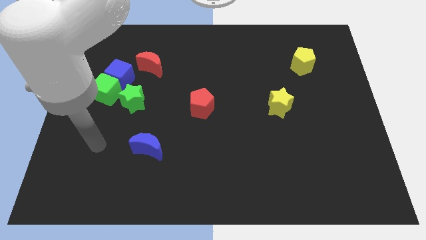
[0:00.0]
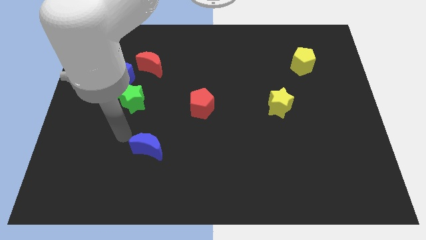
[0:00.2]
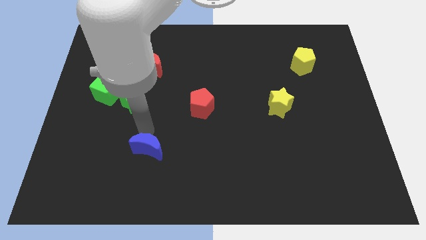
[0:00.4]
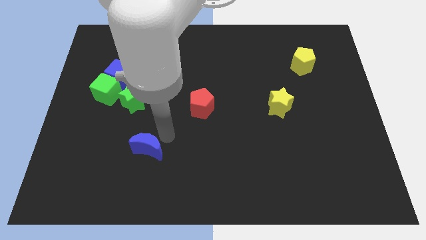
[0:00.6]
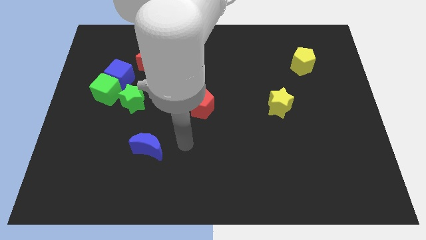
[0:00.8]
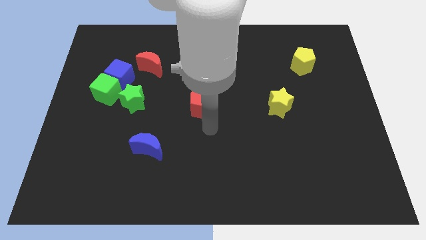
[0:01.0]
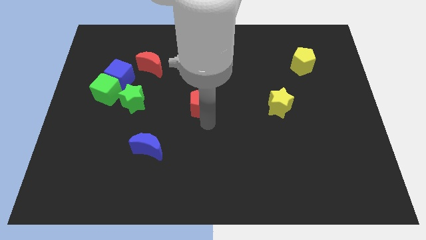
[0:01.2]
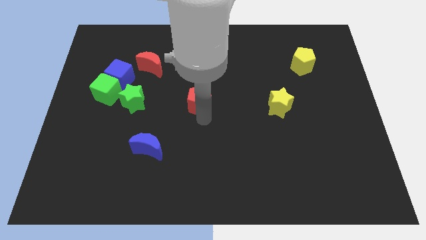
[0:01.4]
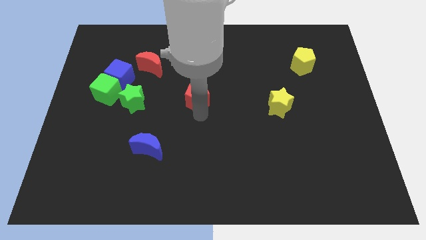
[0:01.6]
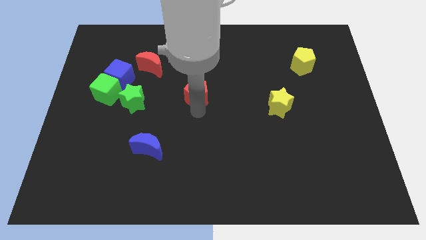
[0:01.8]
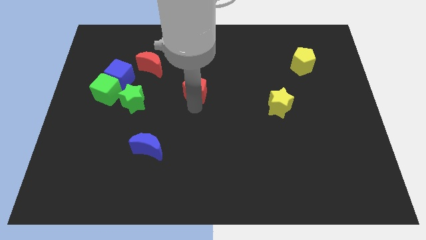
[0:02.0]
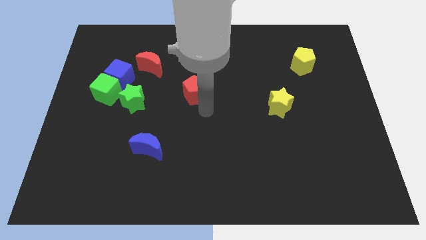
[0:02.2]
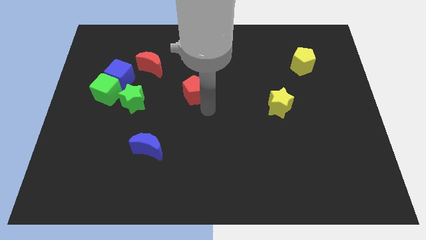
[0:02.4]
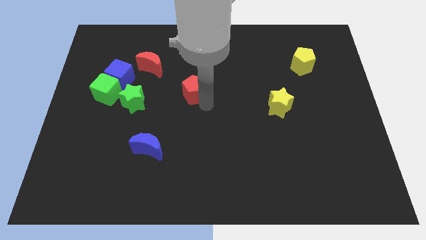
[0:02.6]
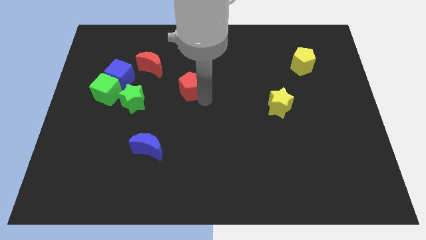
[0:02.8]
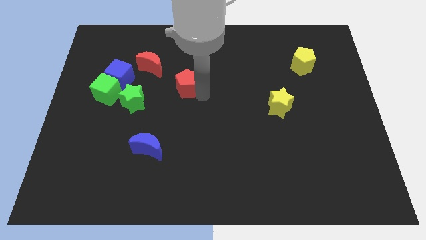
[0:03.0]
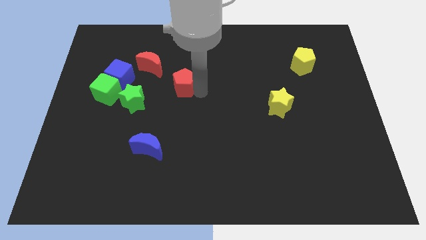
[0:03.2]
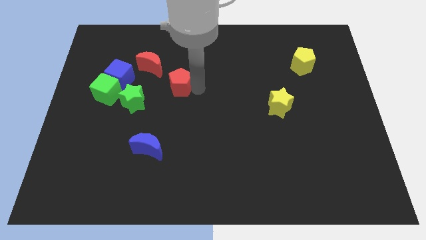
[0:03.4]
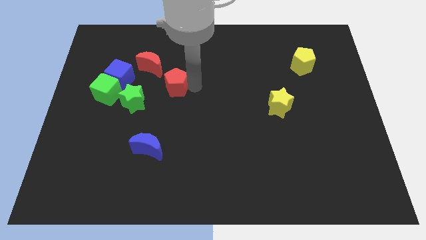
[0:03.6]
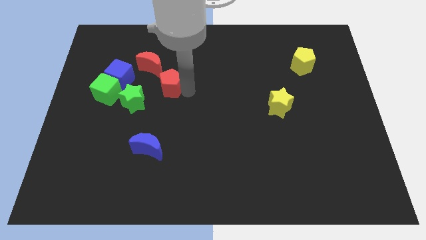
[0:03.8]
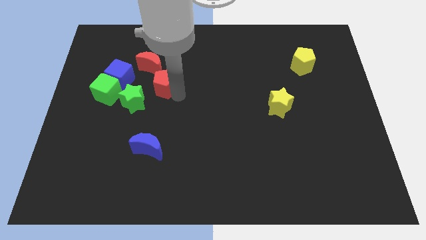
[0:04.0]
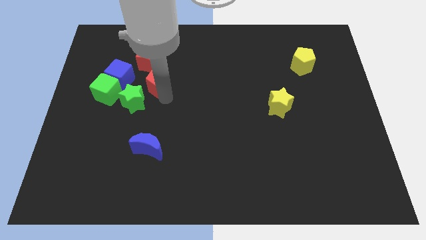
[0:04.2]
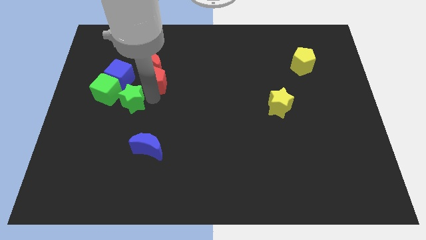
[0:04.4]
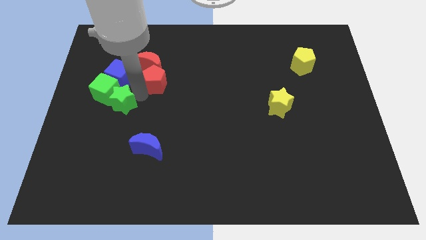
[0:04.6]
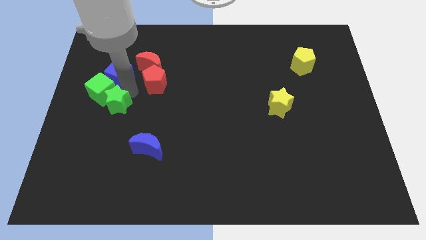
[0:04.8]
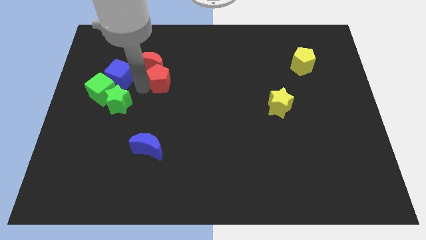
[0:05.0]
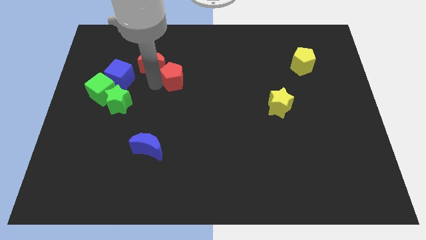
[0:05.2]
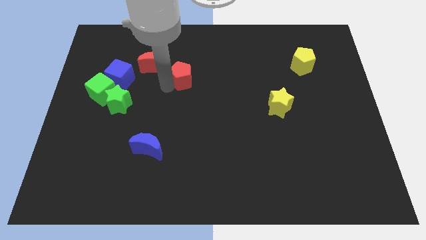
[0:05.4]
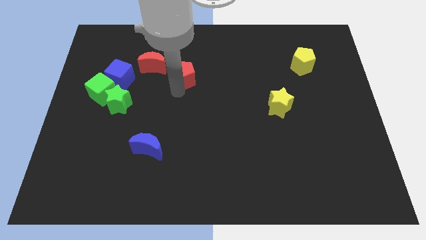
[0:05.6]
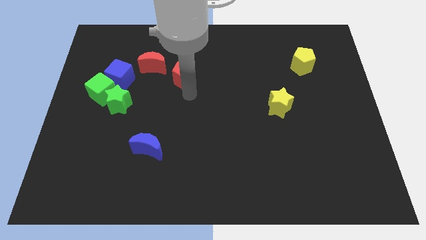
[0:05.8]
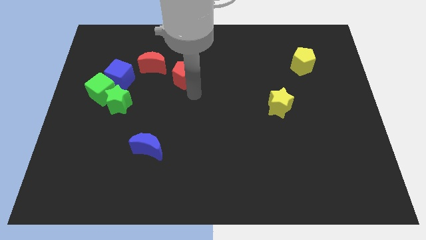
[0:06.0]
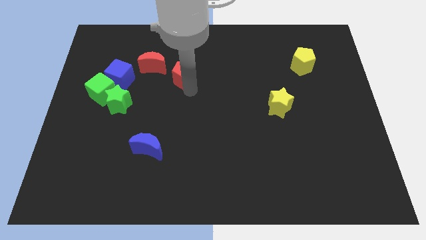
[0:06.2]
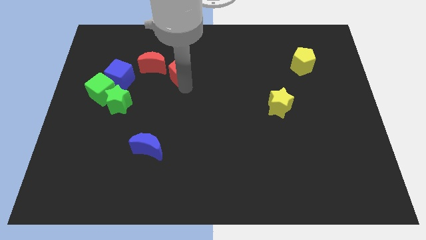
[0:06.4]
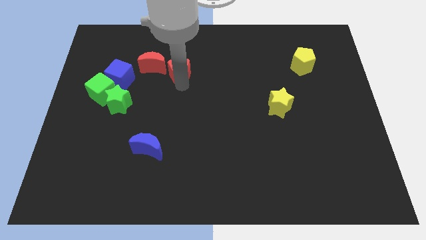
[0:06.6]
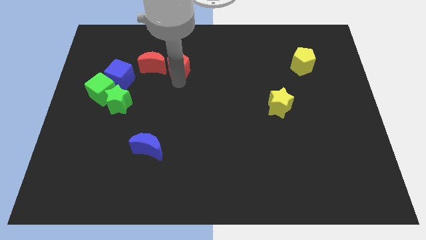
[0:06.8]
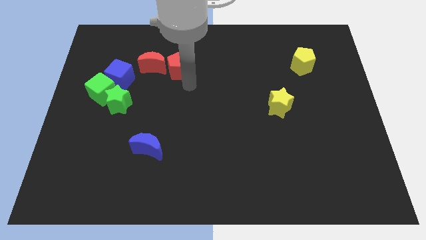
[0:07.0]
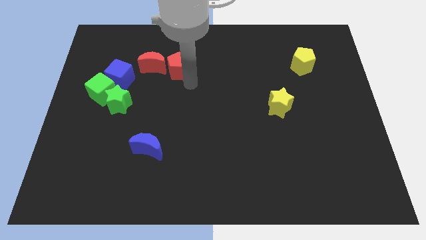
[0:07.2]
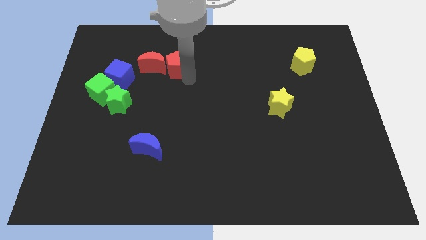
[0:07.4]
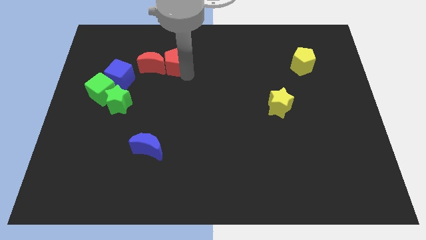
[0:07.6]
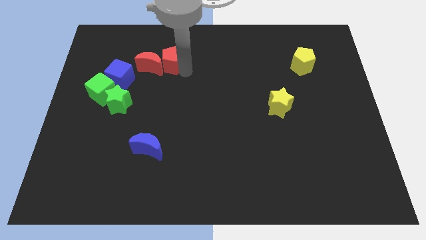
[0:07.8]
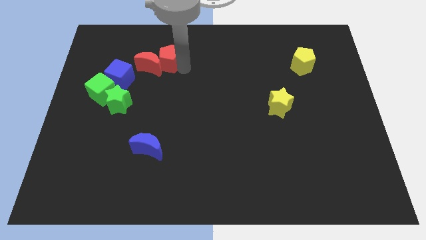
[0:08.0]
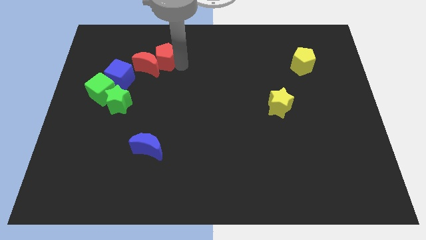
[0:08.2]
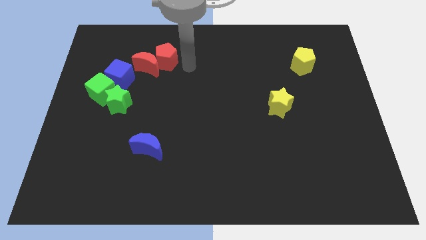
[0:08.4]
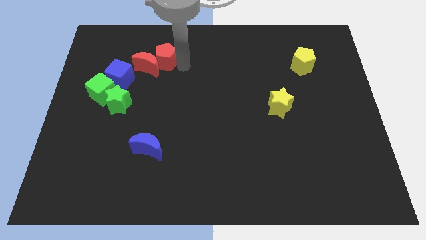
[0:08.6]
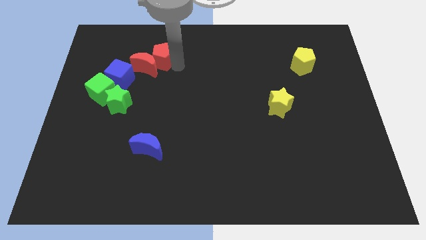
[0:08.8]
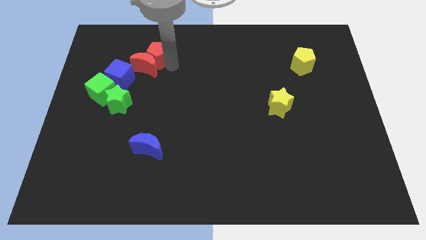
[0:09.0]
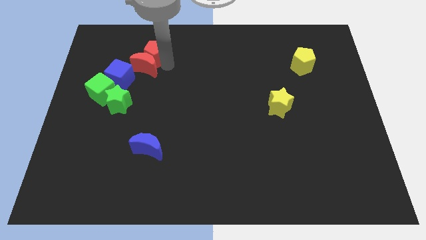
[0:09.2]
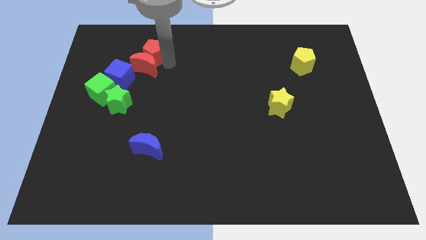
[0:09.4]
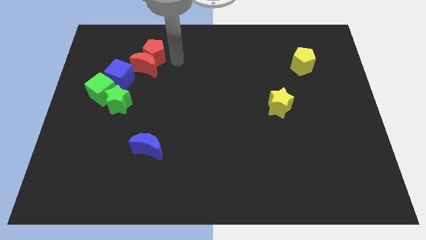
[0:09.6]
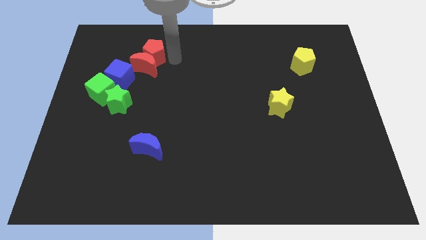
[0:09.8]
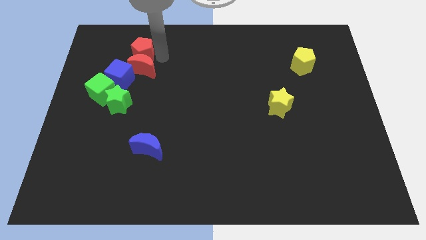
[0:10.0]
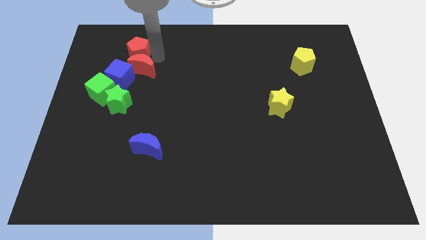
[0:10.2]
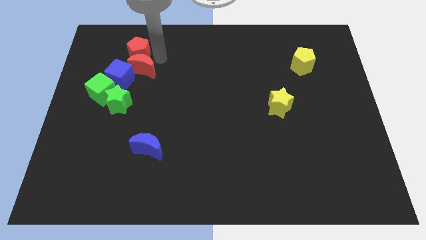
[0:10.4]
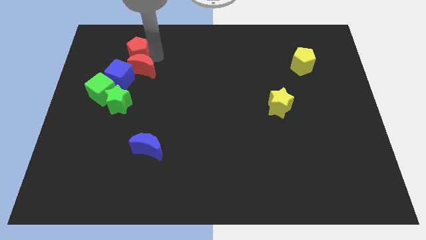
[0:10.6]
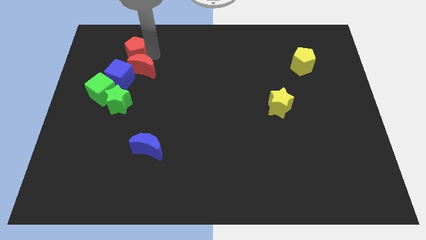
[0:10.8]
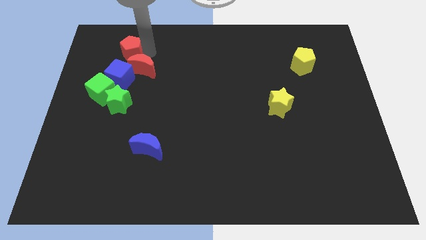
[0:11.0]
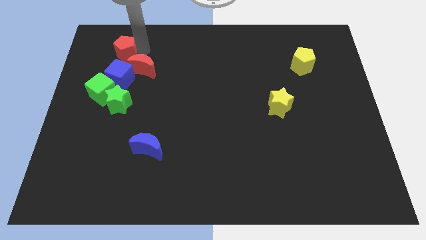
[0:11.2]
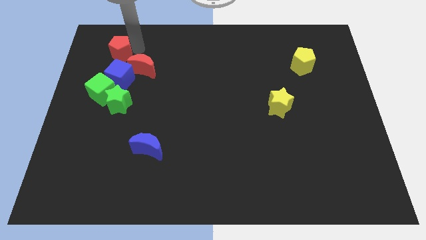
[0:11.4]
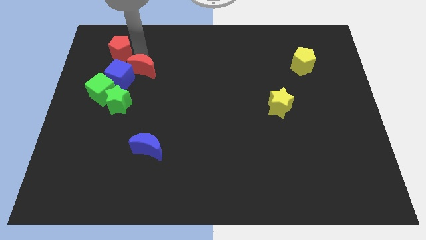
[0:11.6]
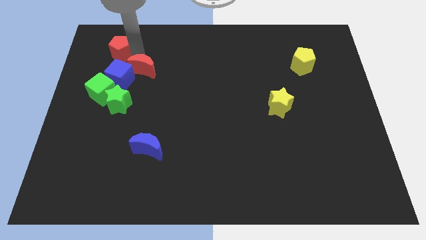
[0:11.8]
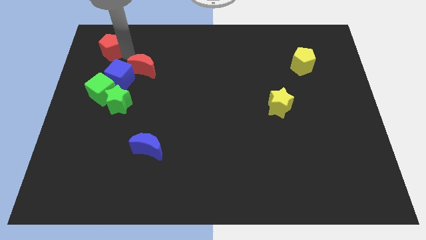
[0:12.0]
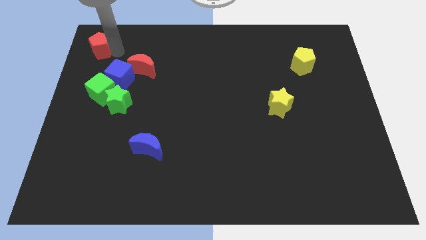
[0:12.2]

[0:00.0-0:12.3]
move the red pentagon to the top left of the board
